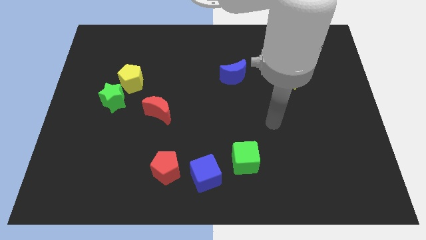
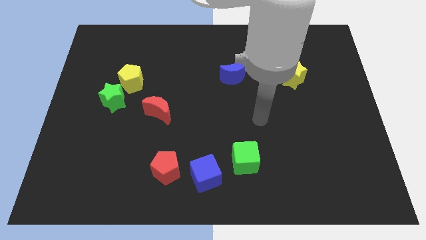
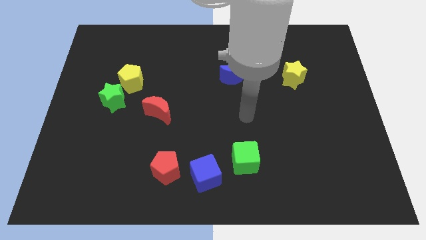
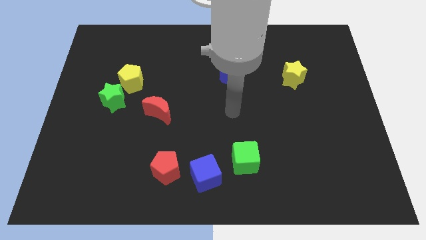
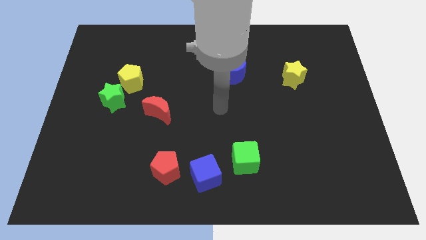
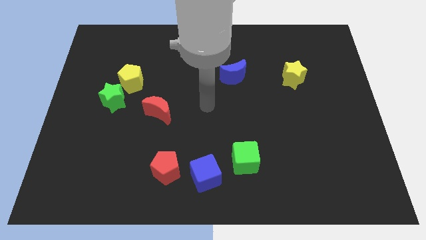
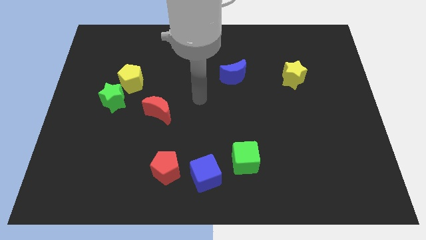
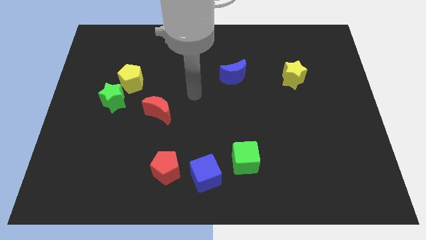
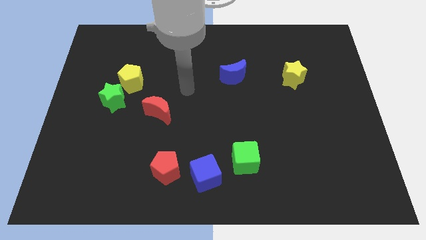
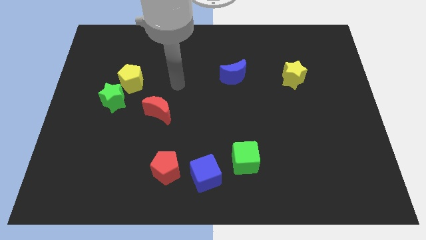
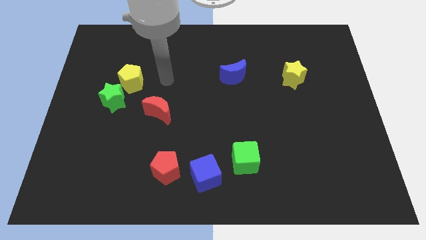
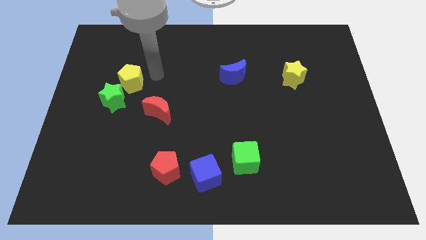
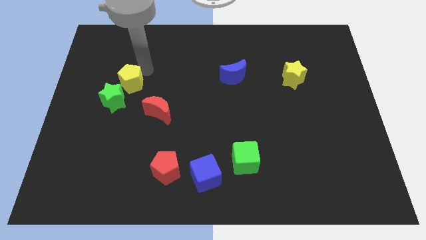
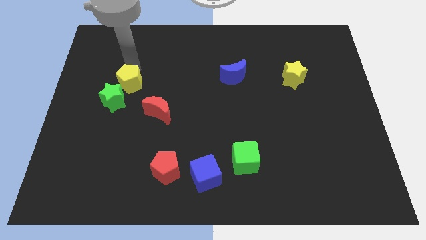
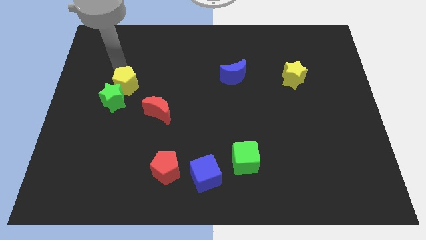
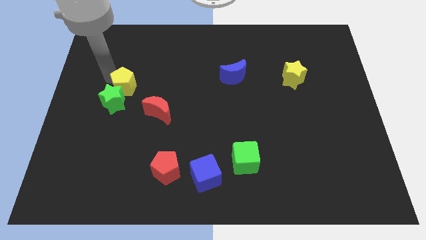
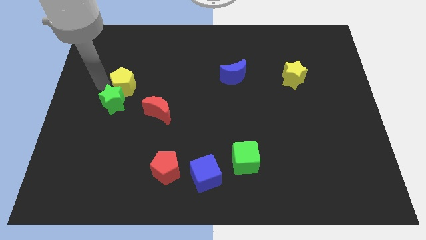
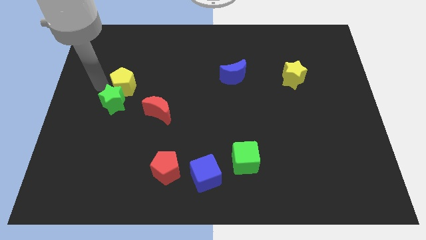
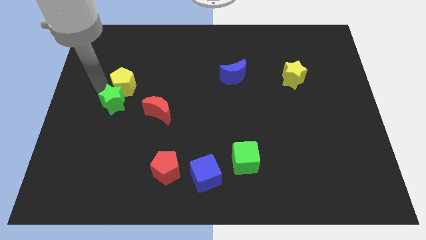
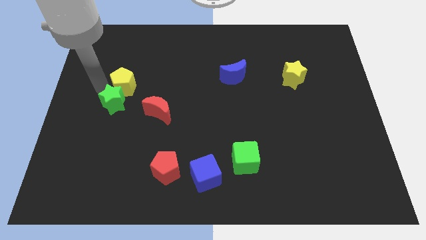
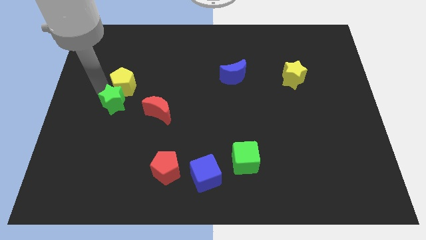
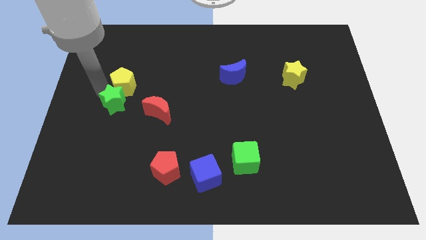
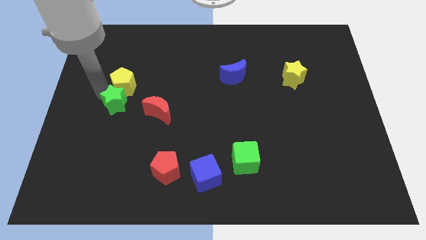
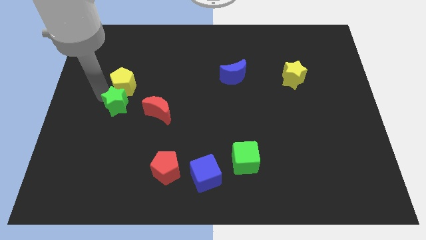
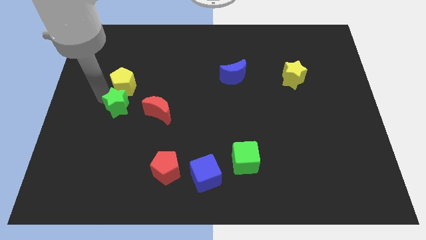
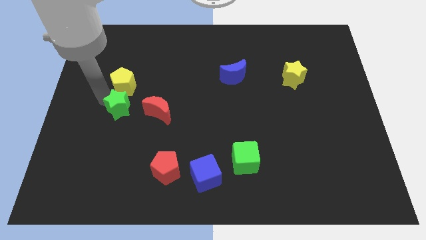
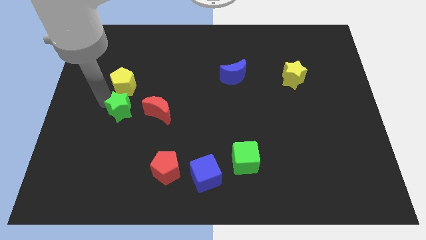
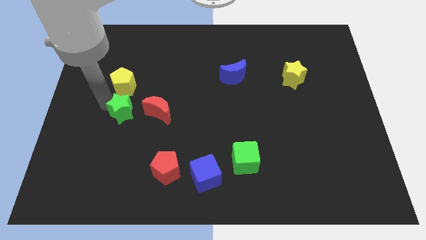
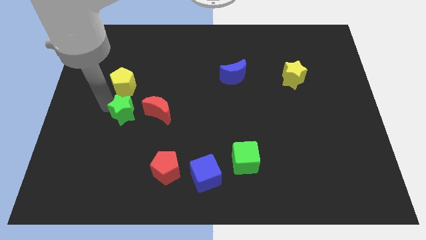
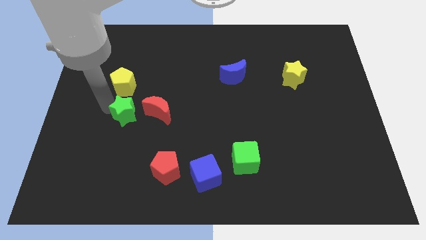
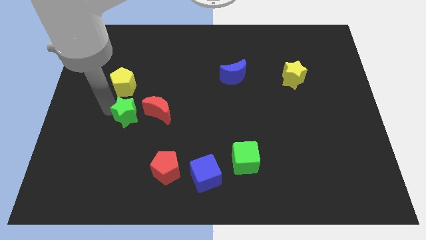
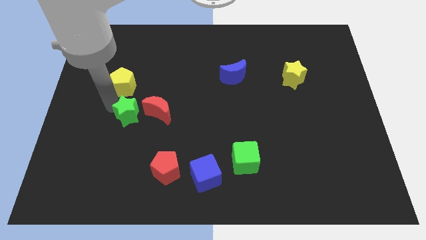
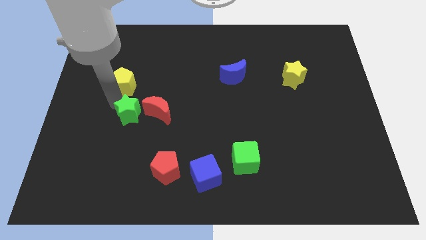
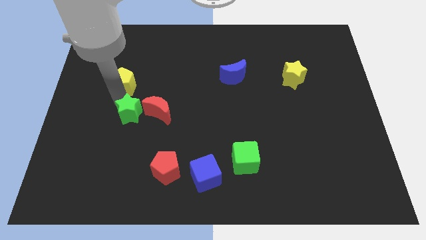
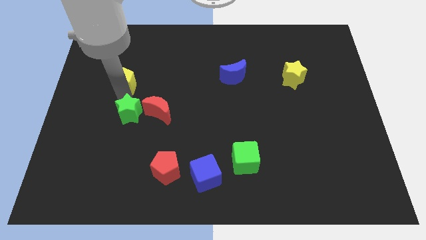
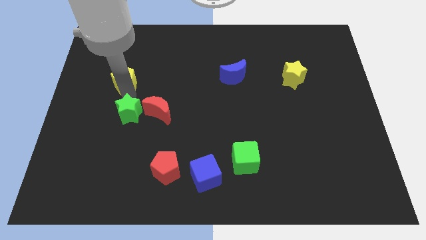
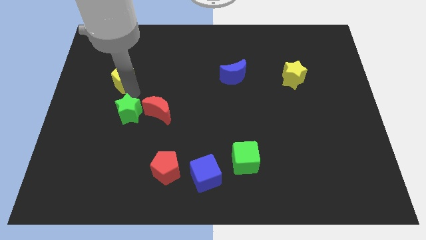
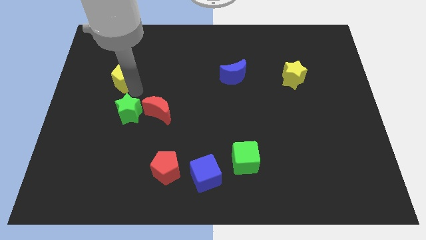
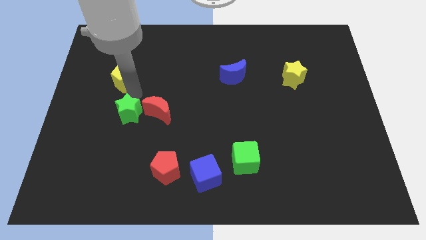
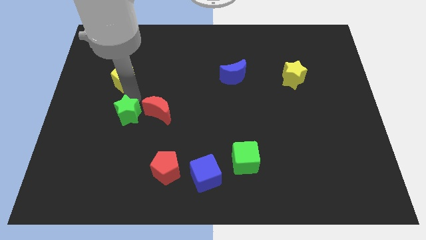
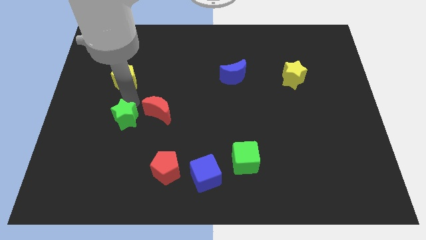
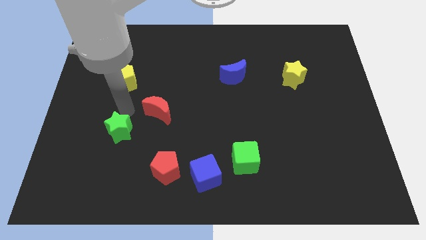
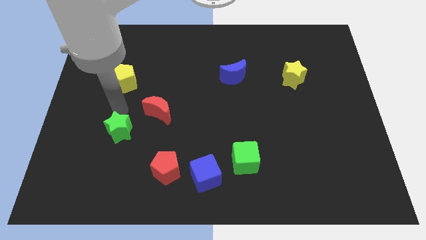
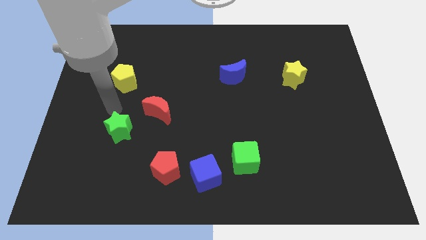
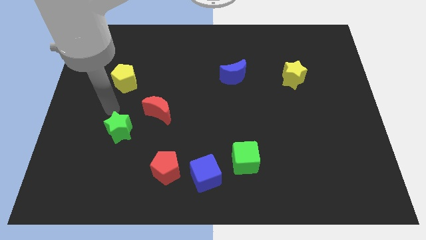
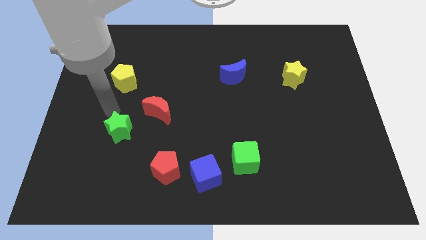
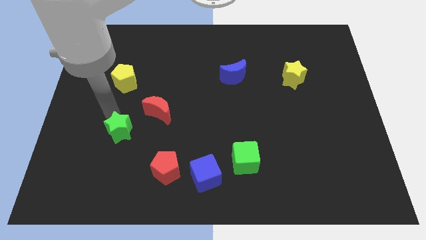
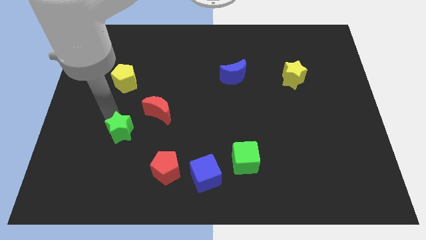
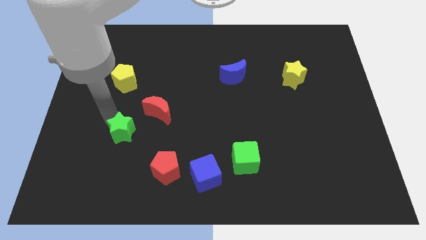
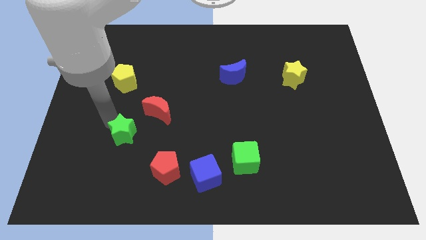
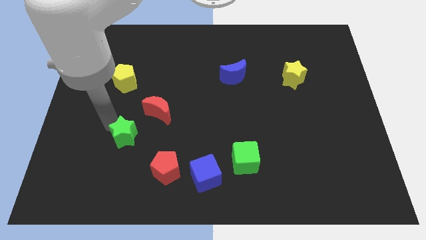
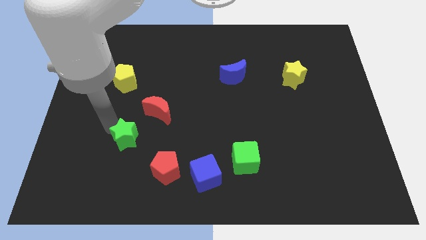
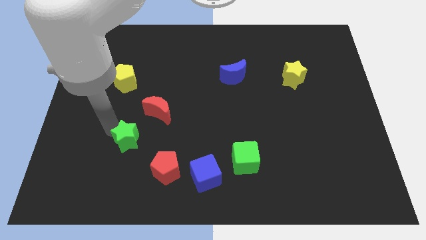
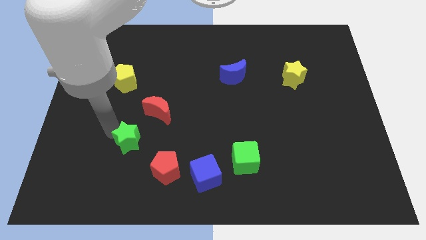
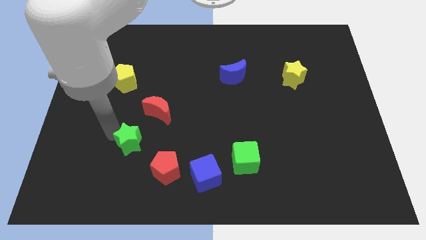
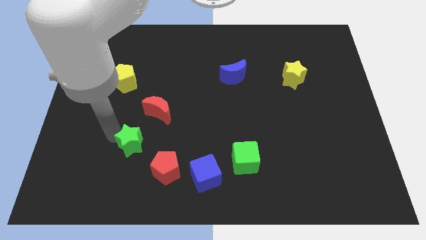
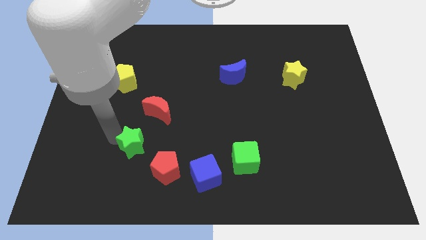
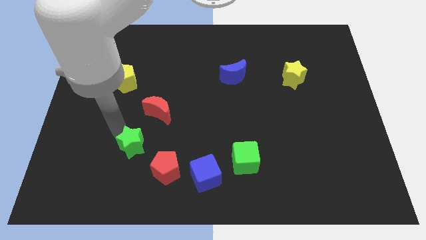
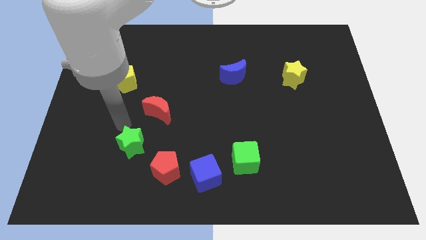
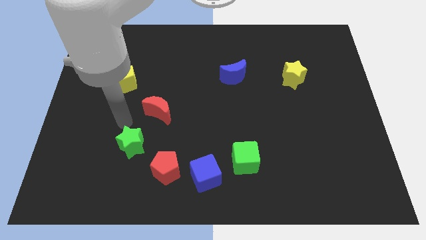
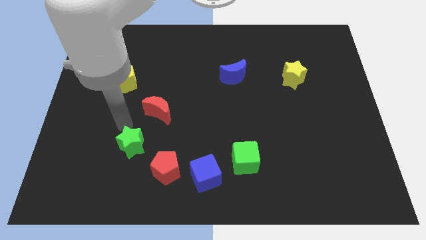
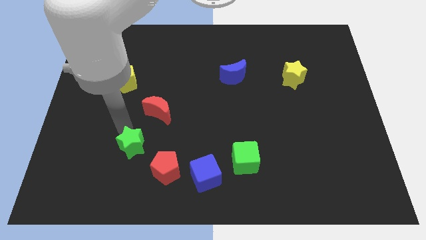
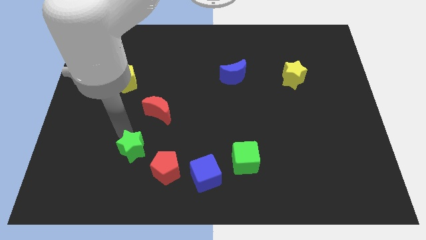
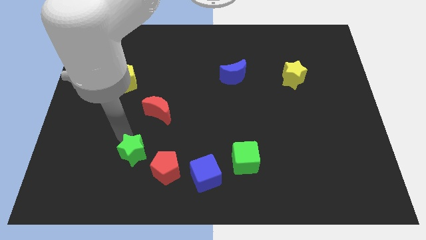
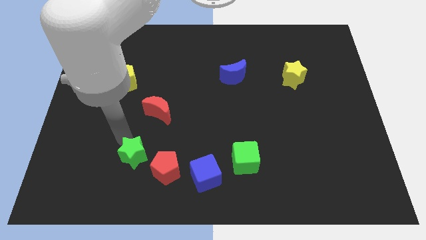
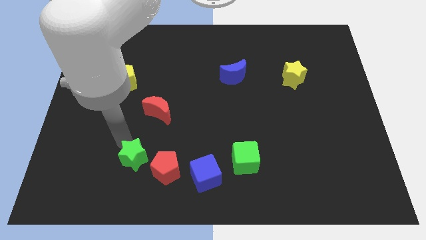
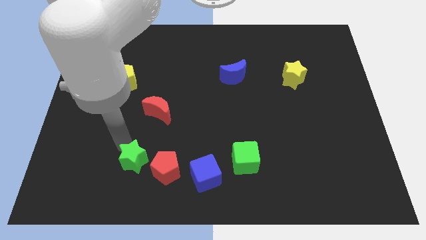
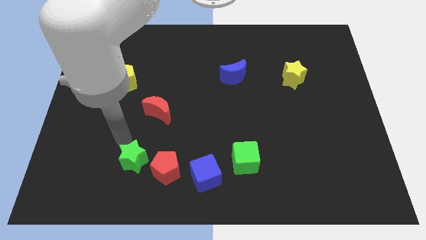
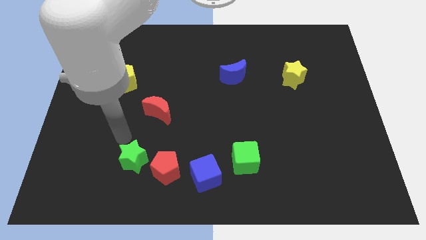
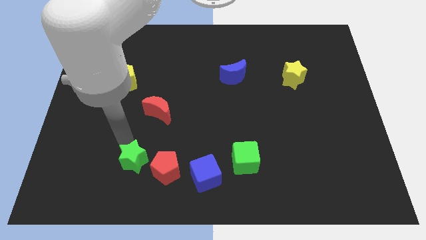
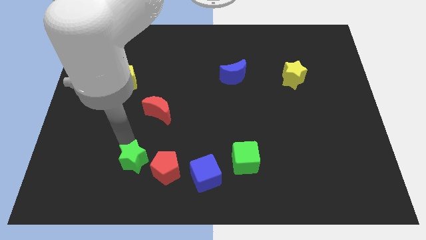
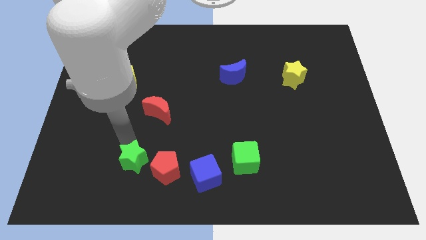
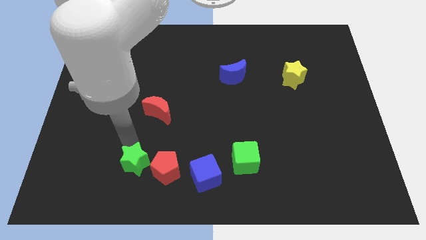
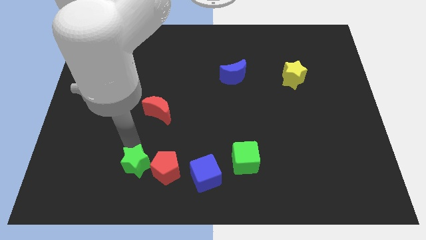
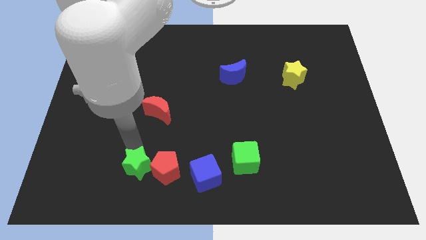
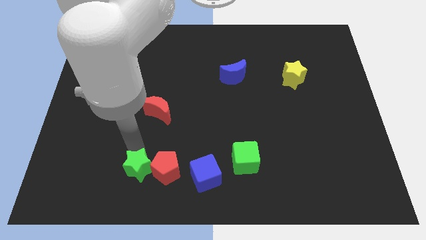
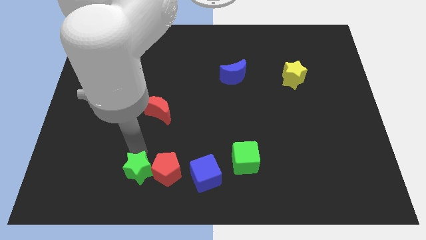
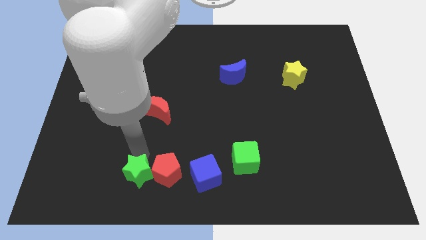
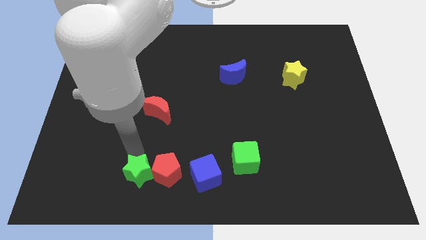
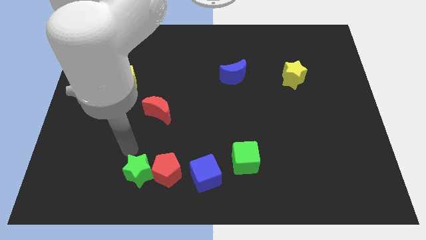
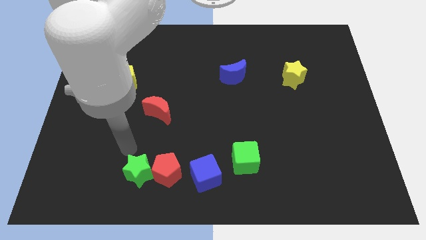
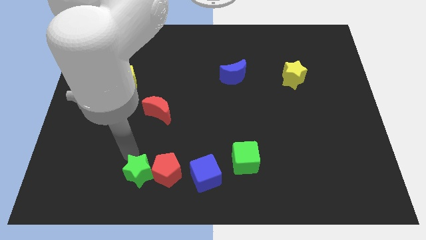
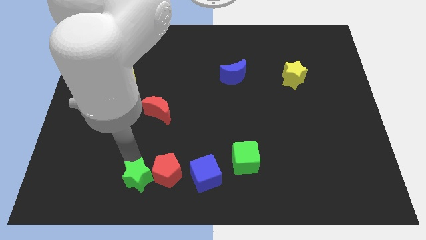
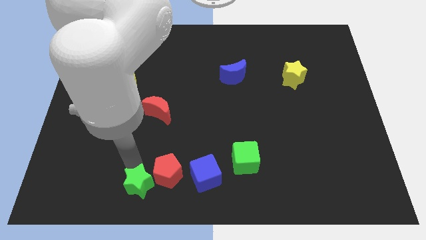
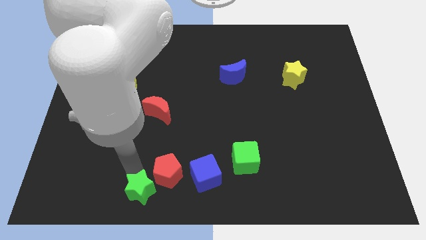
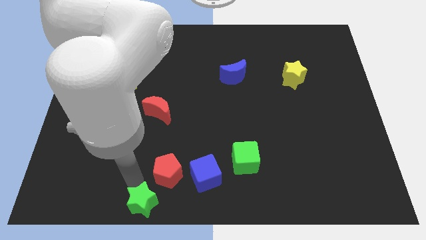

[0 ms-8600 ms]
slide the green star to the bottom
